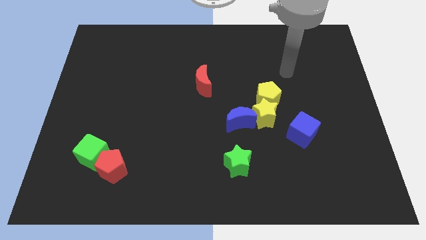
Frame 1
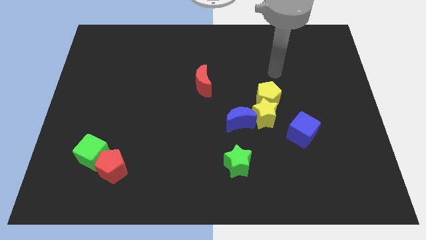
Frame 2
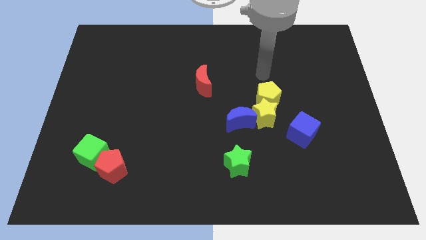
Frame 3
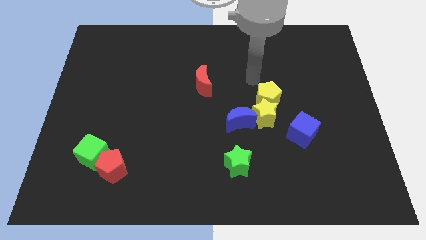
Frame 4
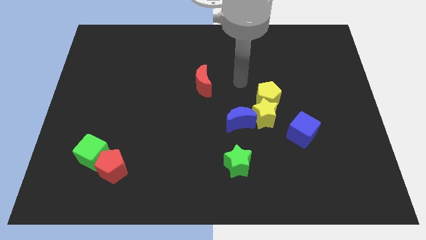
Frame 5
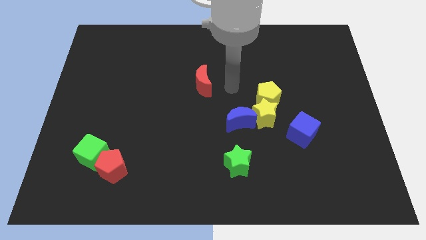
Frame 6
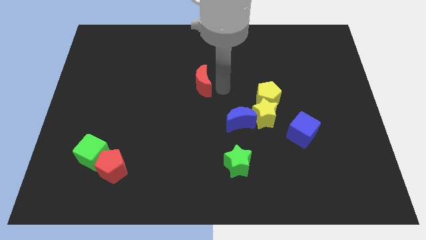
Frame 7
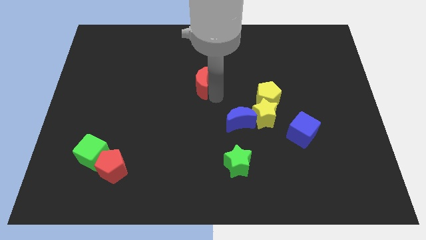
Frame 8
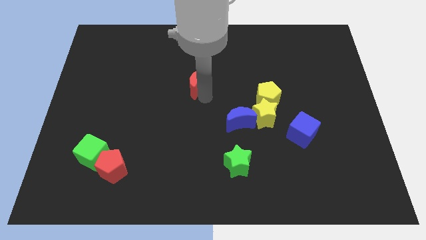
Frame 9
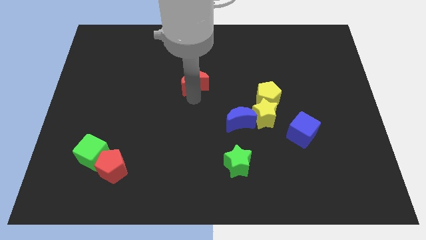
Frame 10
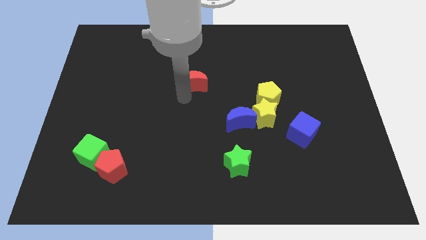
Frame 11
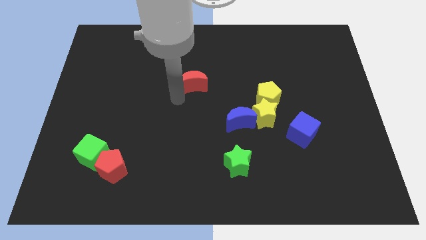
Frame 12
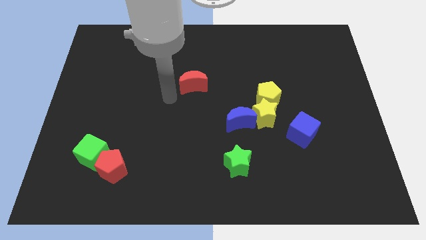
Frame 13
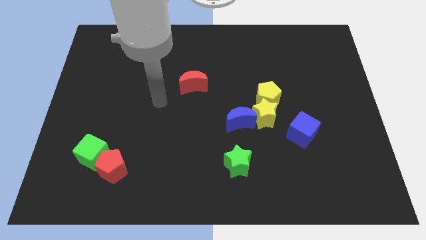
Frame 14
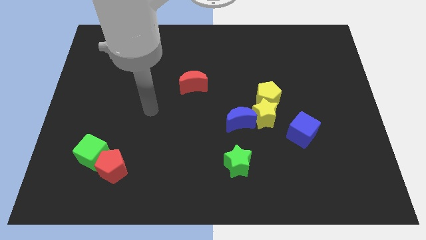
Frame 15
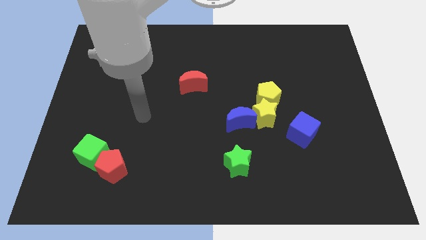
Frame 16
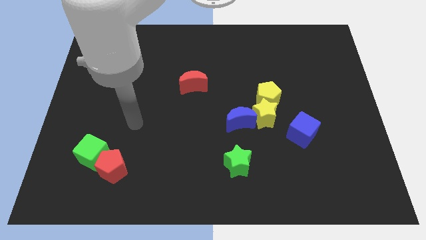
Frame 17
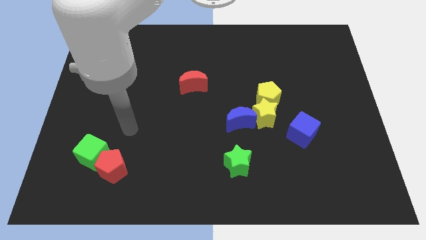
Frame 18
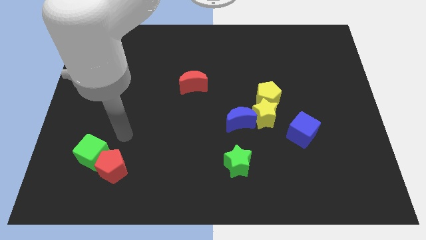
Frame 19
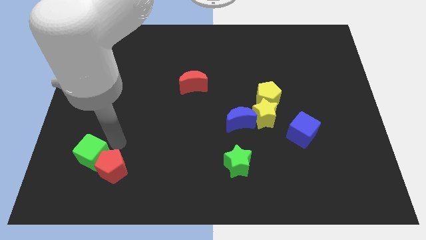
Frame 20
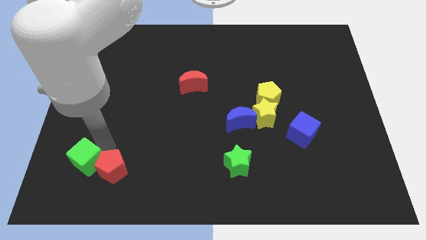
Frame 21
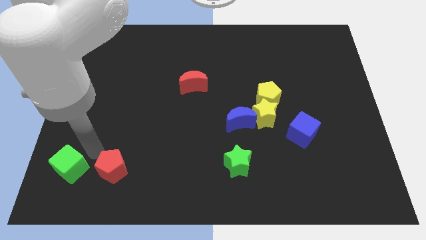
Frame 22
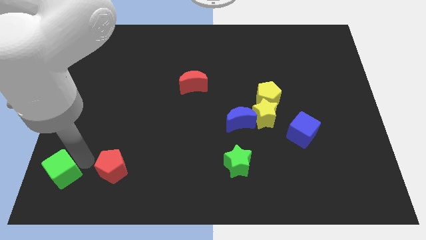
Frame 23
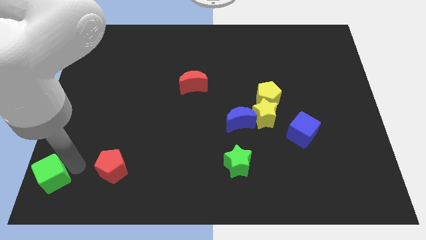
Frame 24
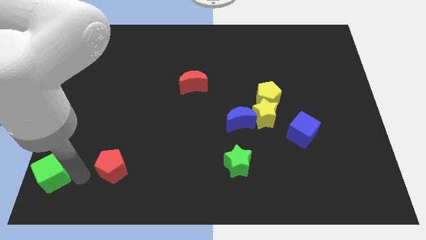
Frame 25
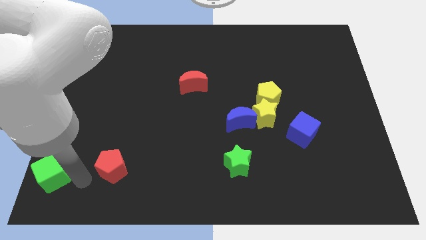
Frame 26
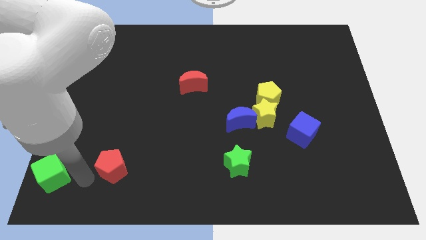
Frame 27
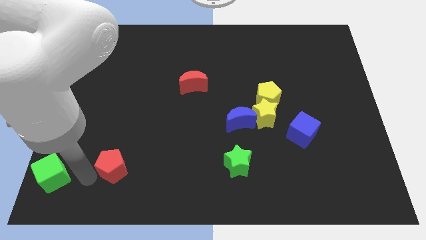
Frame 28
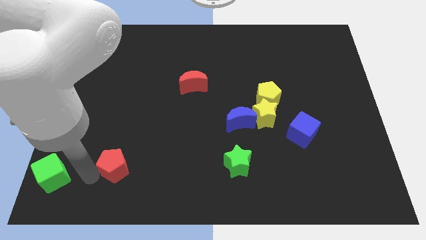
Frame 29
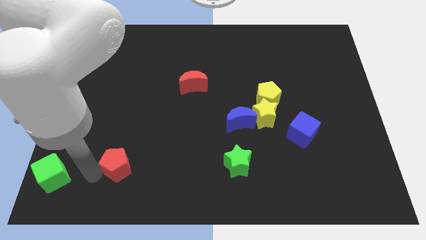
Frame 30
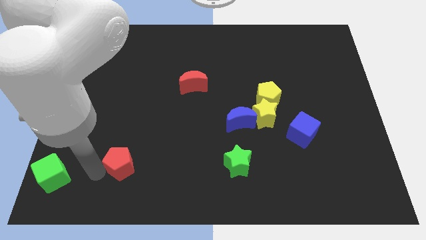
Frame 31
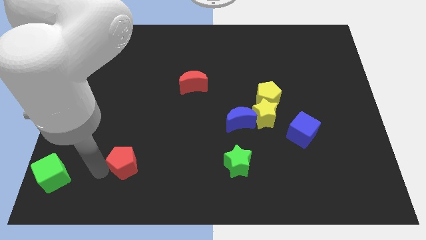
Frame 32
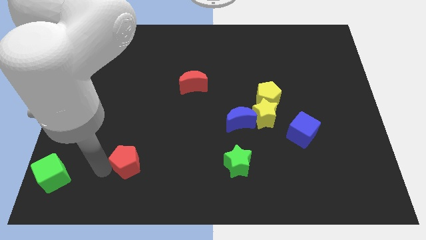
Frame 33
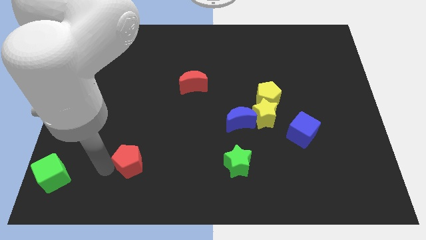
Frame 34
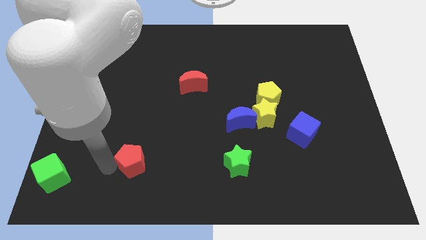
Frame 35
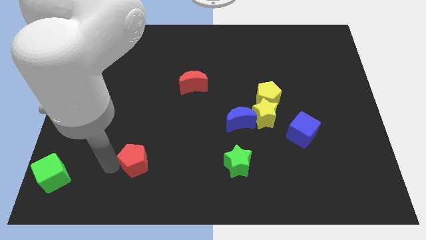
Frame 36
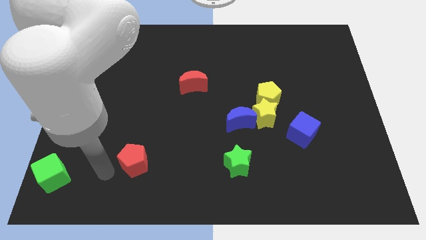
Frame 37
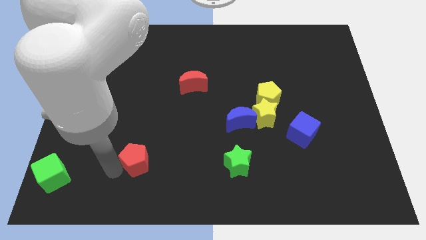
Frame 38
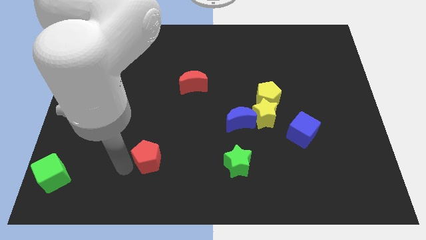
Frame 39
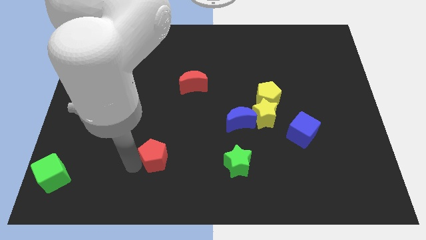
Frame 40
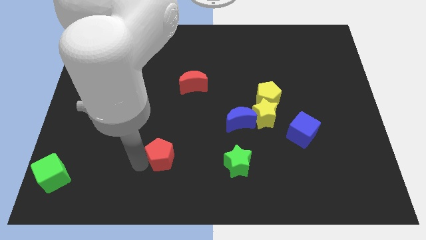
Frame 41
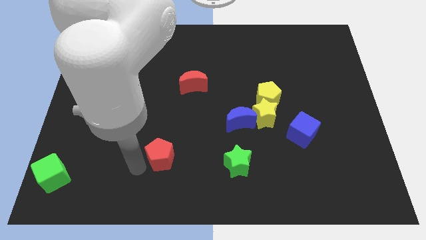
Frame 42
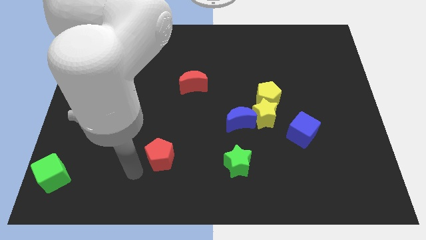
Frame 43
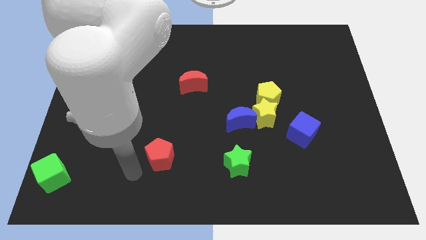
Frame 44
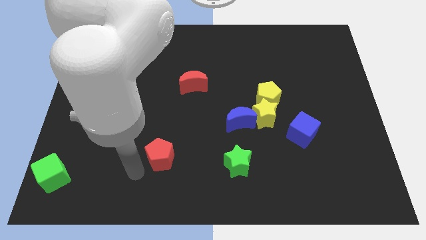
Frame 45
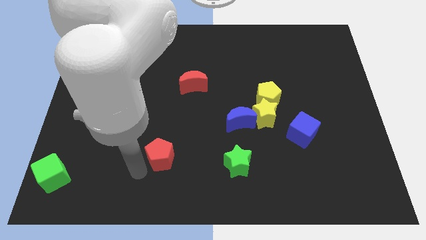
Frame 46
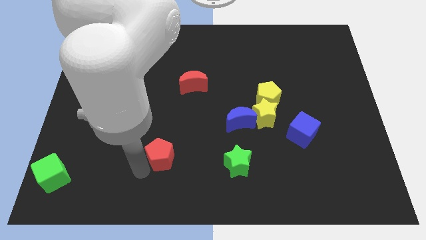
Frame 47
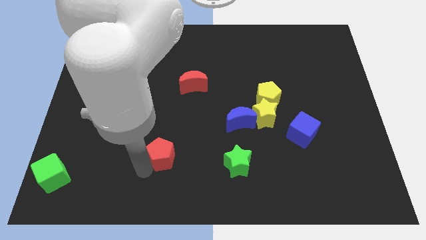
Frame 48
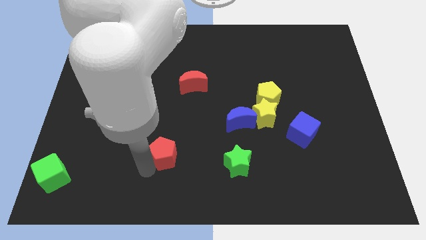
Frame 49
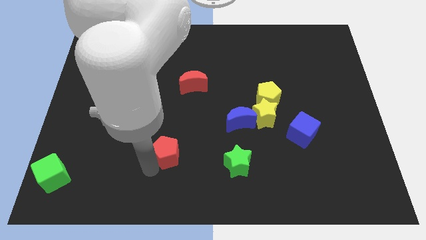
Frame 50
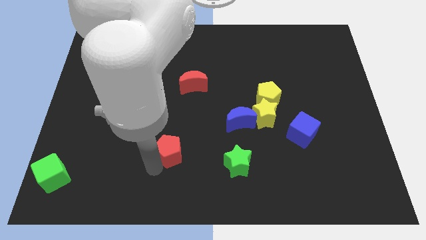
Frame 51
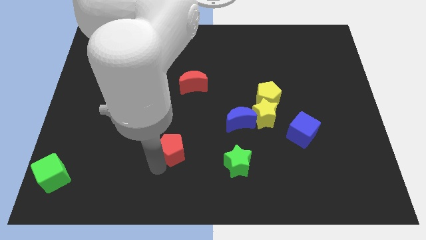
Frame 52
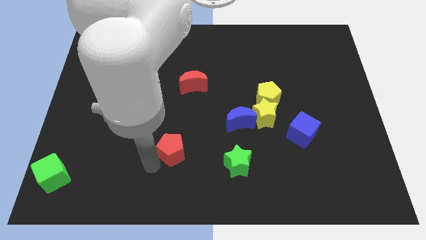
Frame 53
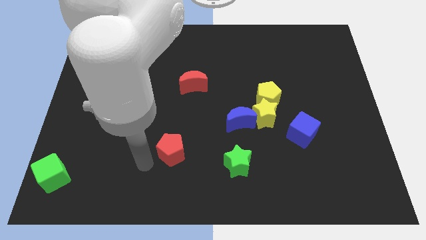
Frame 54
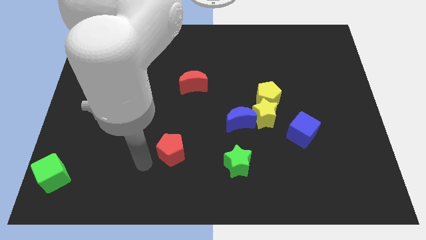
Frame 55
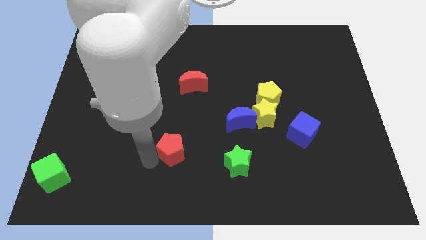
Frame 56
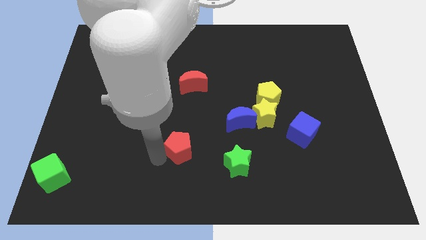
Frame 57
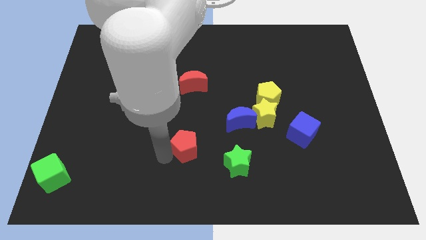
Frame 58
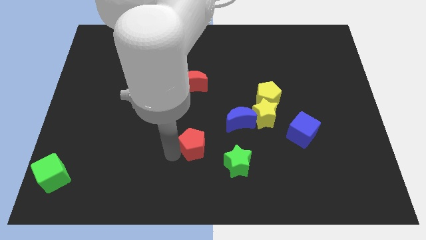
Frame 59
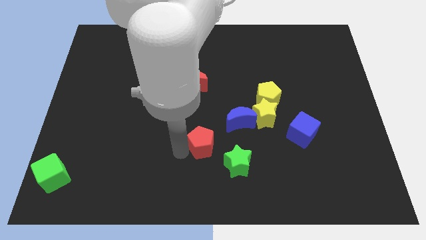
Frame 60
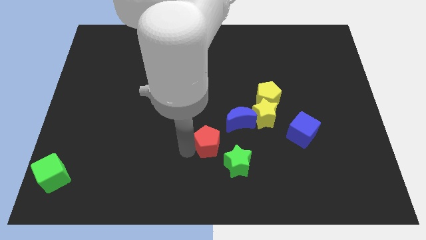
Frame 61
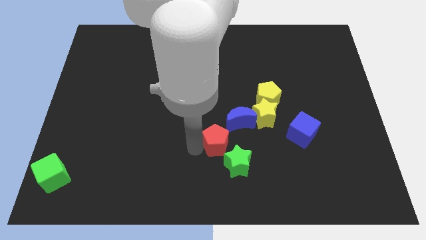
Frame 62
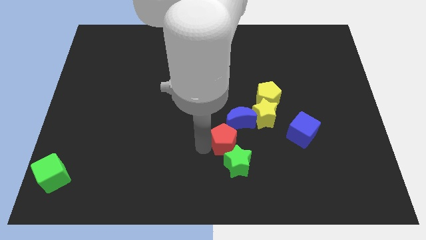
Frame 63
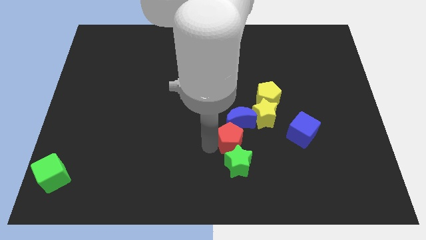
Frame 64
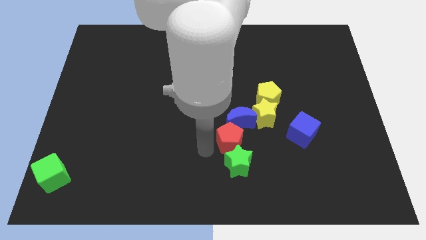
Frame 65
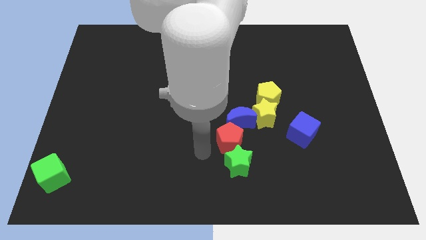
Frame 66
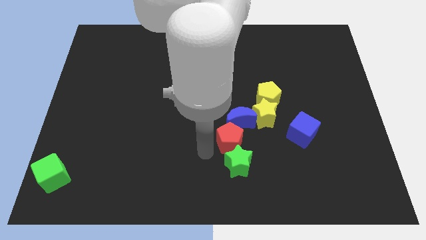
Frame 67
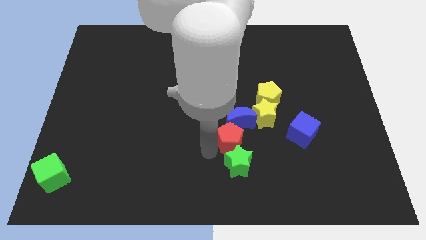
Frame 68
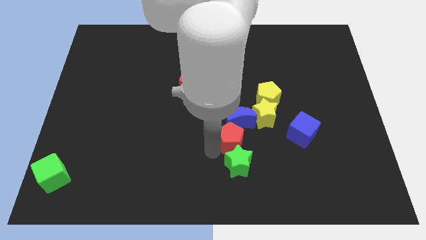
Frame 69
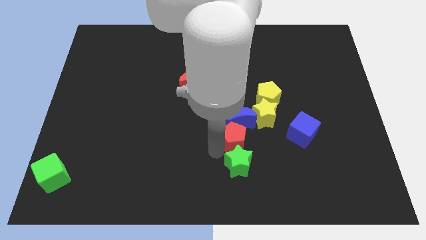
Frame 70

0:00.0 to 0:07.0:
slide the red pentagon to the left side of the blue cube
